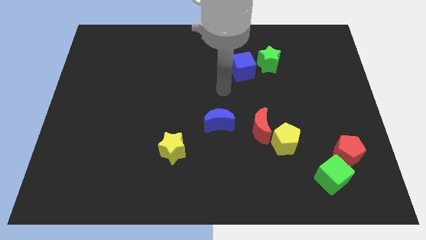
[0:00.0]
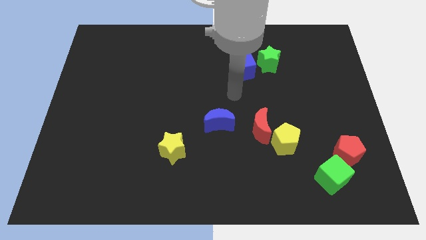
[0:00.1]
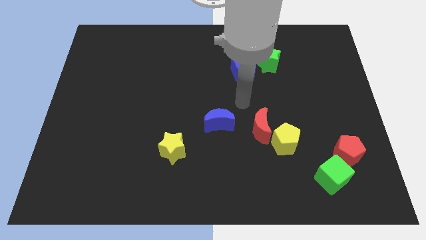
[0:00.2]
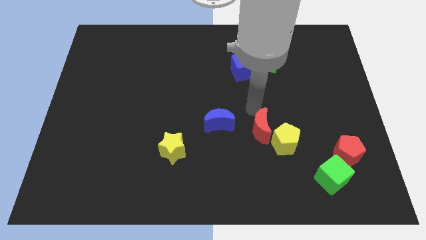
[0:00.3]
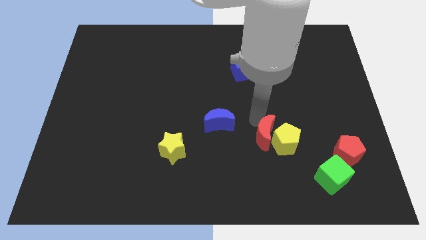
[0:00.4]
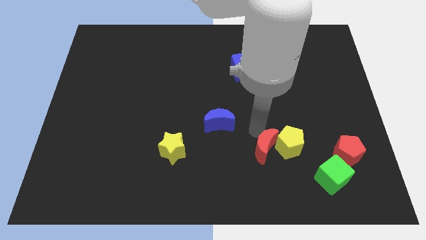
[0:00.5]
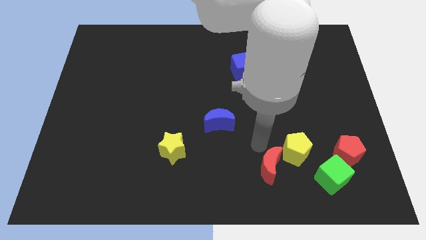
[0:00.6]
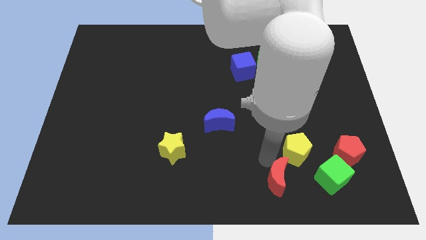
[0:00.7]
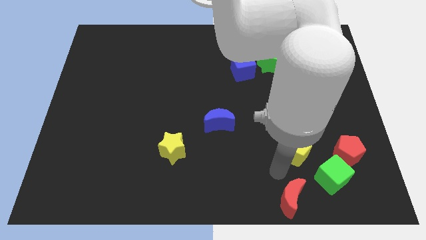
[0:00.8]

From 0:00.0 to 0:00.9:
move the yellow pentagon away from the red moon

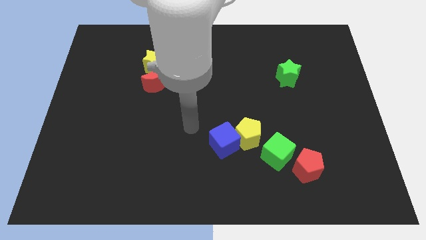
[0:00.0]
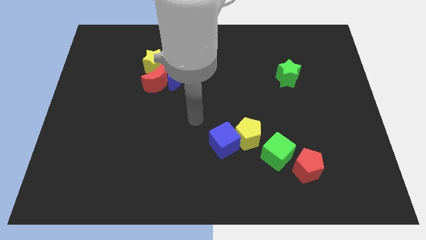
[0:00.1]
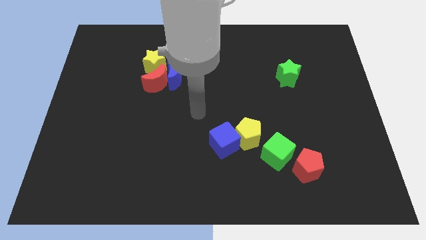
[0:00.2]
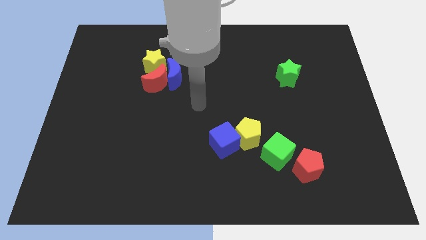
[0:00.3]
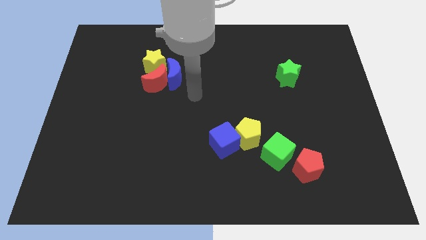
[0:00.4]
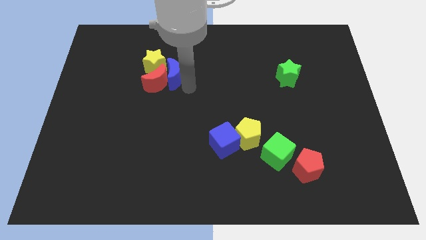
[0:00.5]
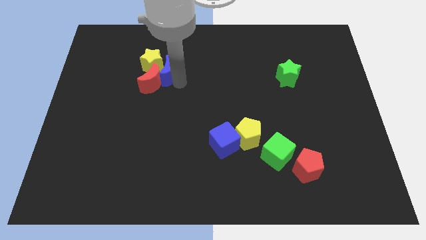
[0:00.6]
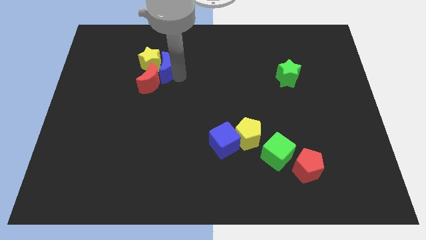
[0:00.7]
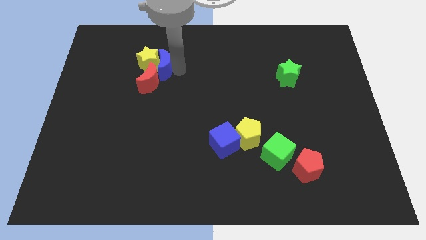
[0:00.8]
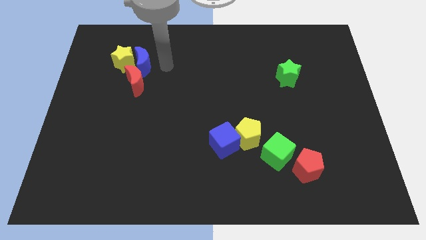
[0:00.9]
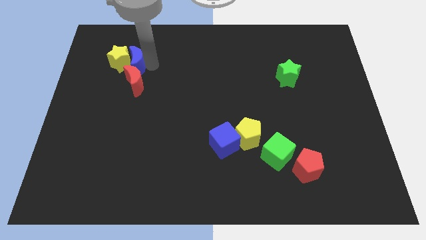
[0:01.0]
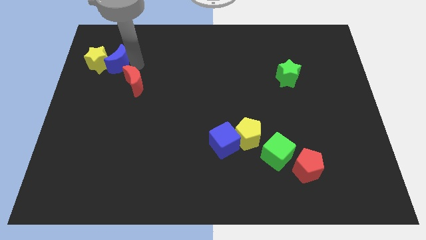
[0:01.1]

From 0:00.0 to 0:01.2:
move the red moon away from the blue moon and yellow star

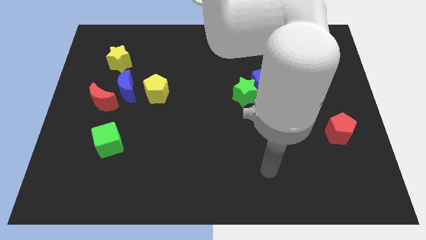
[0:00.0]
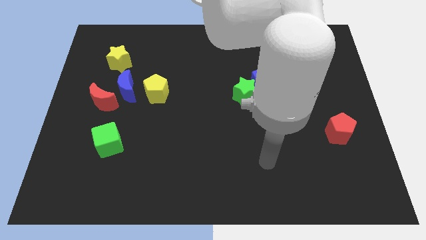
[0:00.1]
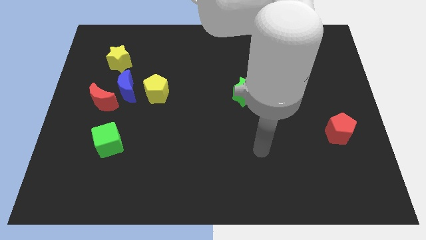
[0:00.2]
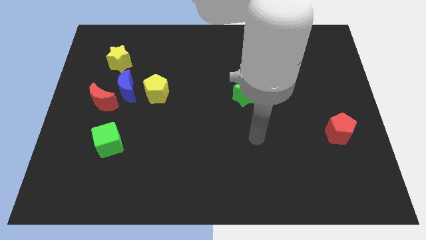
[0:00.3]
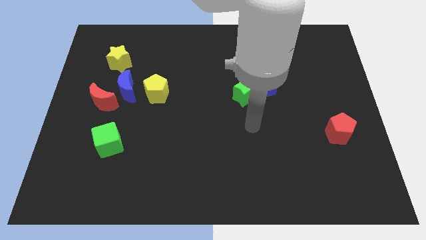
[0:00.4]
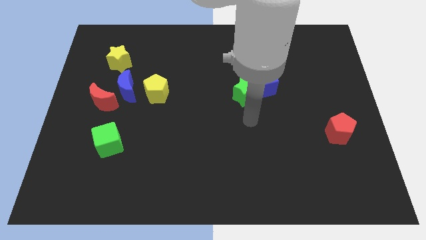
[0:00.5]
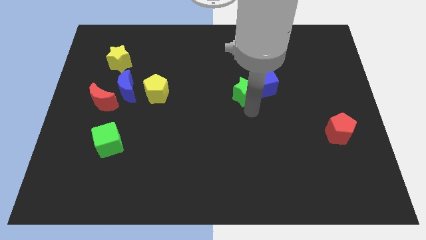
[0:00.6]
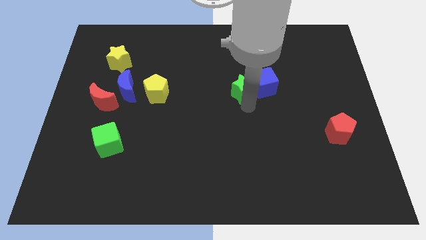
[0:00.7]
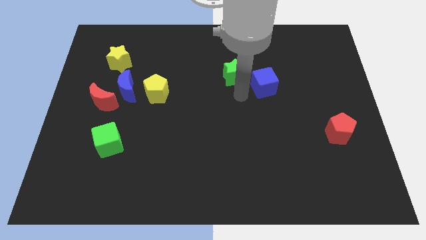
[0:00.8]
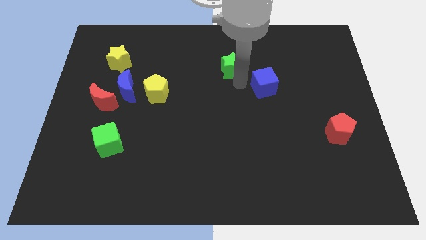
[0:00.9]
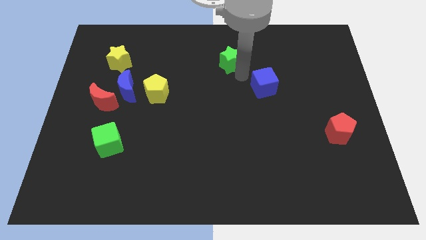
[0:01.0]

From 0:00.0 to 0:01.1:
pull the blue cube apart from the green star

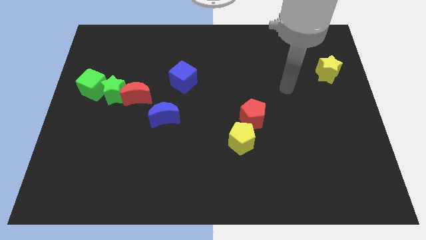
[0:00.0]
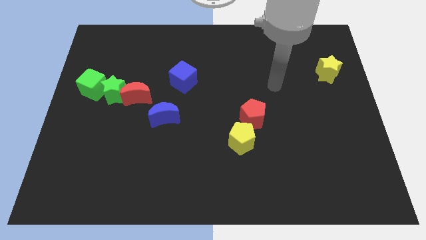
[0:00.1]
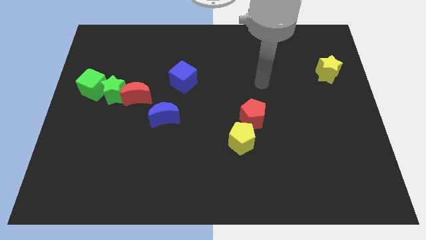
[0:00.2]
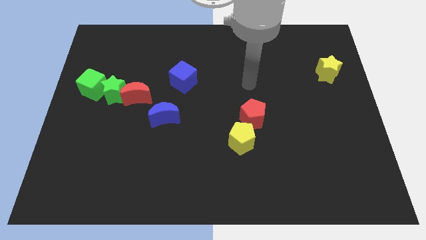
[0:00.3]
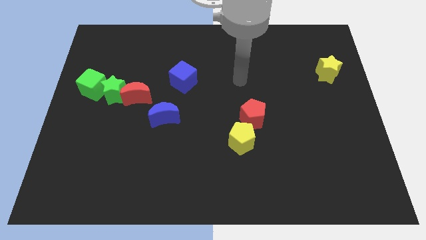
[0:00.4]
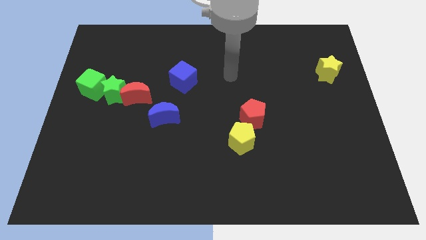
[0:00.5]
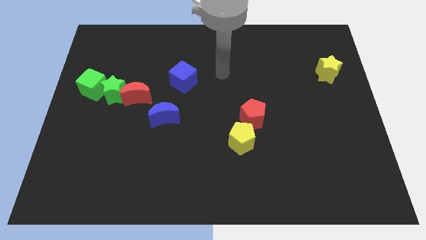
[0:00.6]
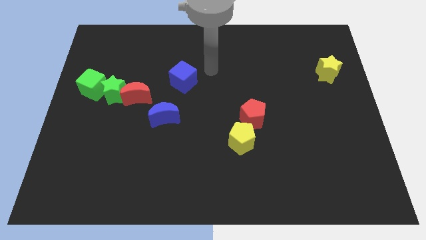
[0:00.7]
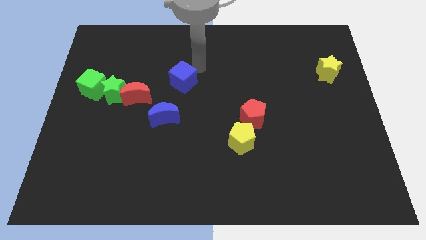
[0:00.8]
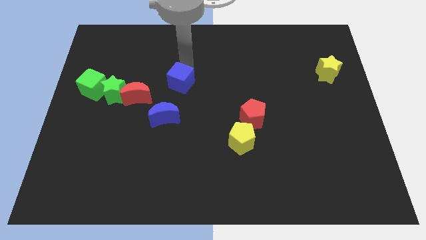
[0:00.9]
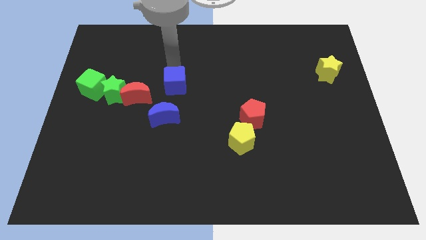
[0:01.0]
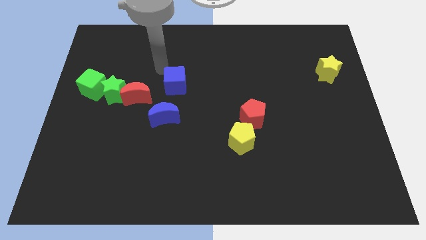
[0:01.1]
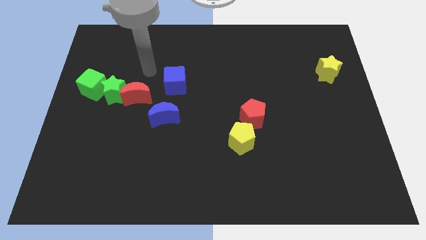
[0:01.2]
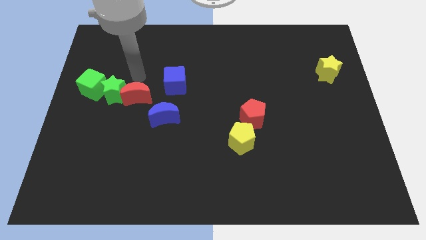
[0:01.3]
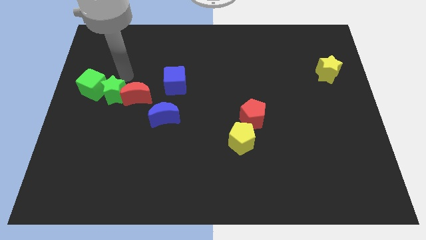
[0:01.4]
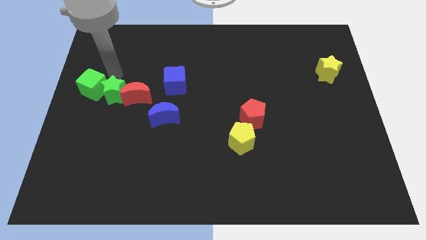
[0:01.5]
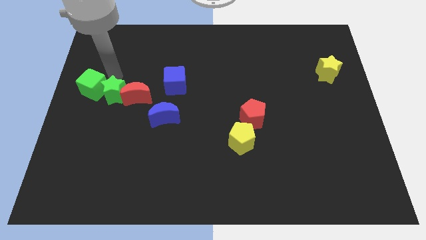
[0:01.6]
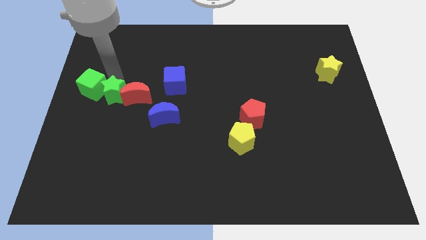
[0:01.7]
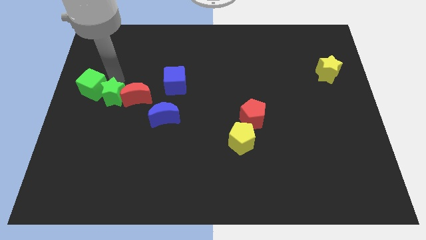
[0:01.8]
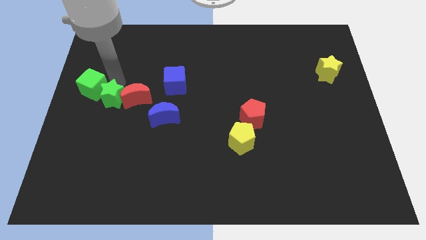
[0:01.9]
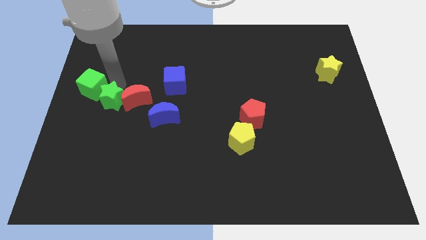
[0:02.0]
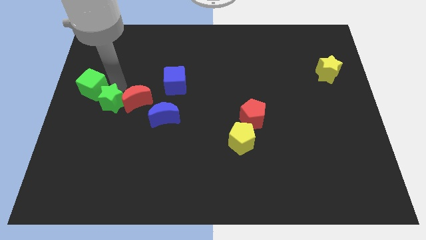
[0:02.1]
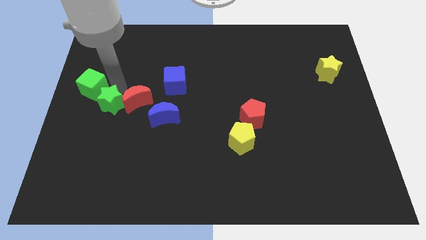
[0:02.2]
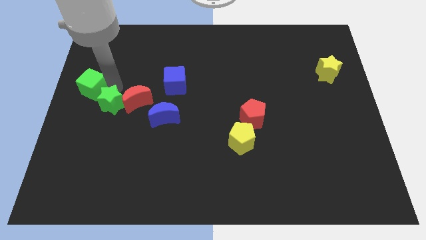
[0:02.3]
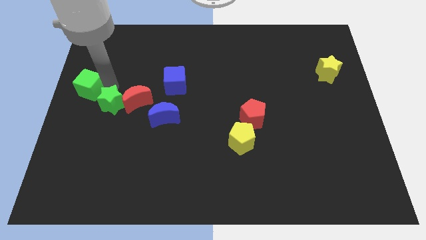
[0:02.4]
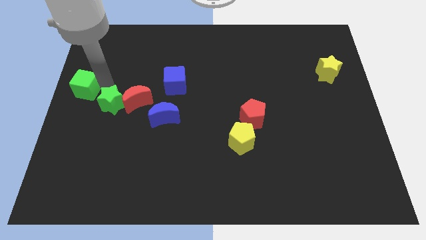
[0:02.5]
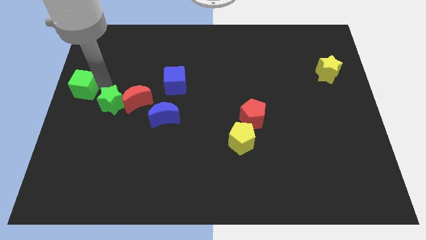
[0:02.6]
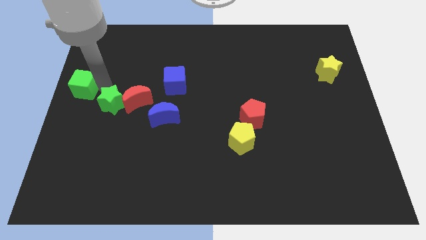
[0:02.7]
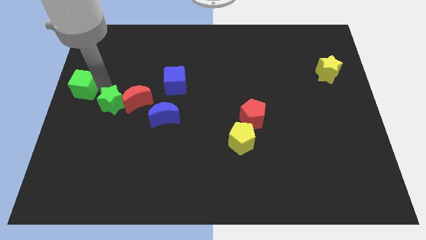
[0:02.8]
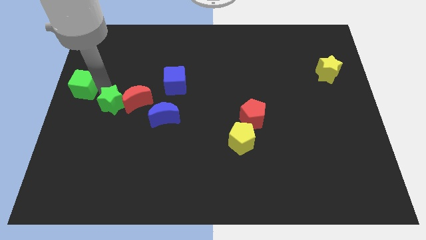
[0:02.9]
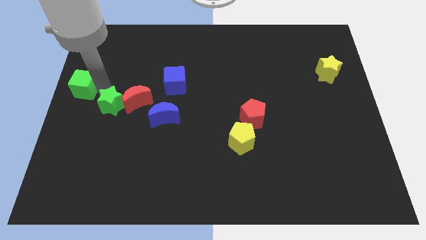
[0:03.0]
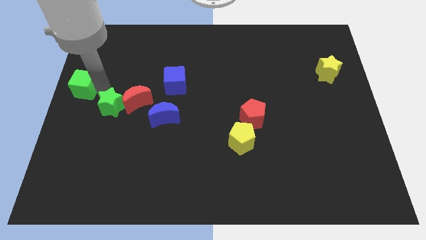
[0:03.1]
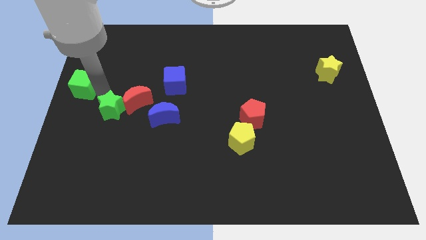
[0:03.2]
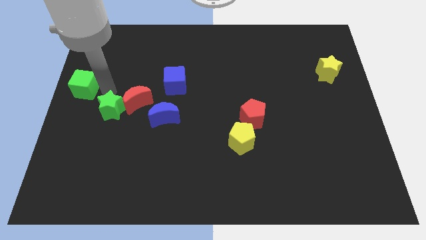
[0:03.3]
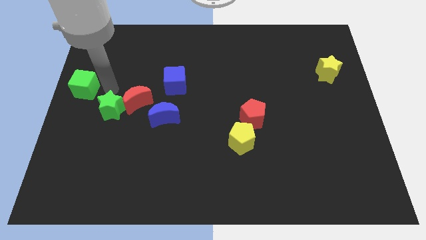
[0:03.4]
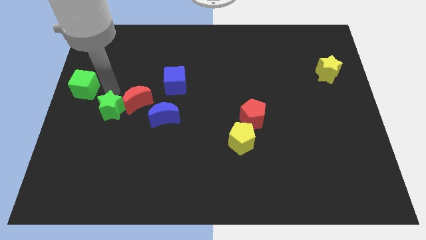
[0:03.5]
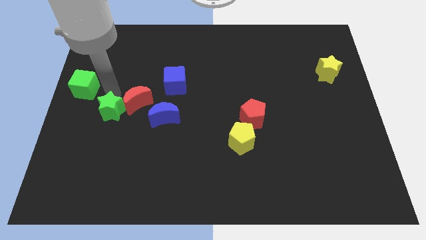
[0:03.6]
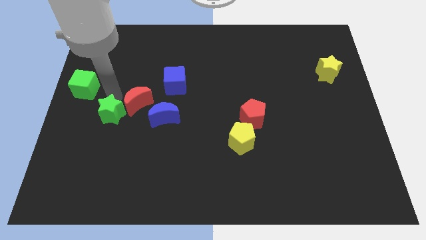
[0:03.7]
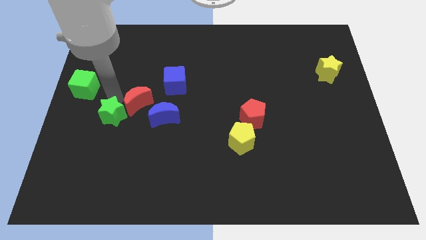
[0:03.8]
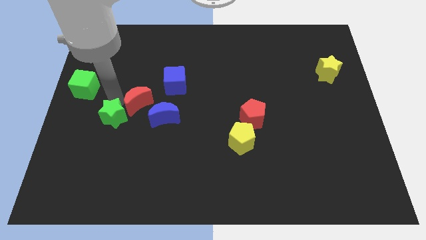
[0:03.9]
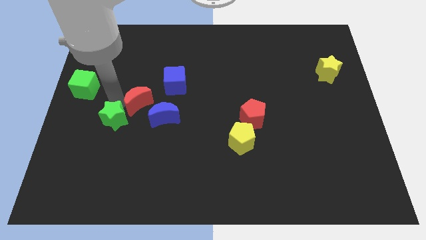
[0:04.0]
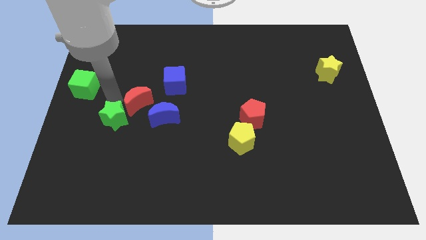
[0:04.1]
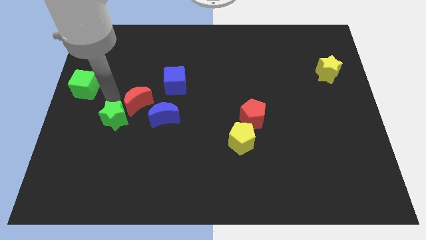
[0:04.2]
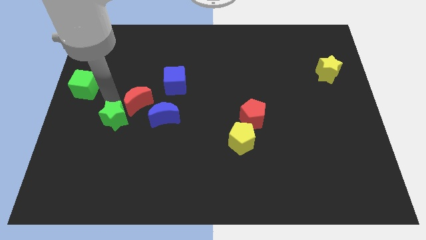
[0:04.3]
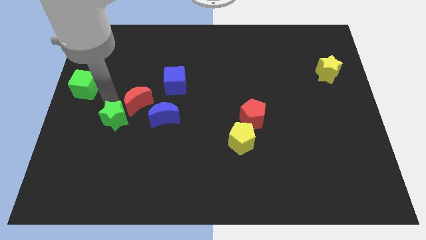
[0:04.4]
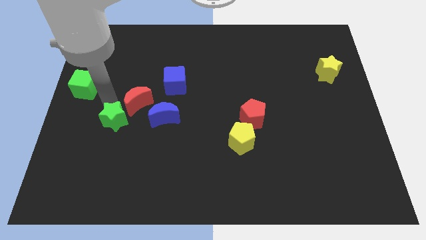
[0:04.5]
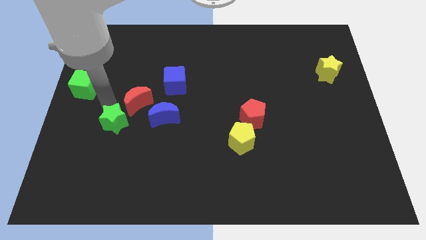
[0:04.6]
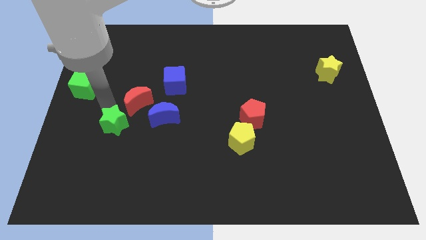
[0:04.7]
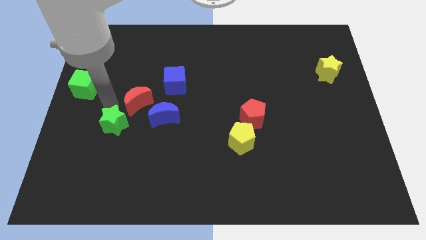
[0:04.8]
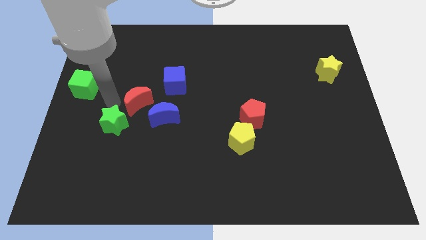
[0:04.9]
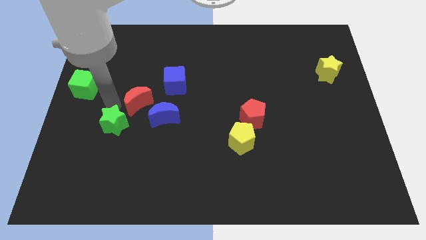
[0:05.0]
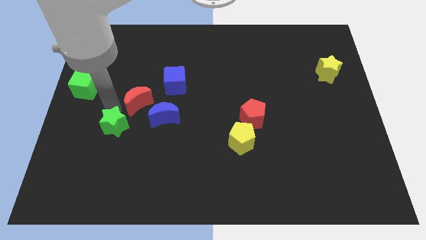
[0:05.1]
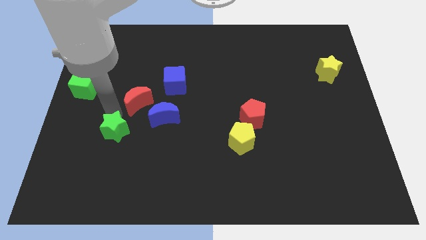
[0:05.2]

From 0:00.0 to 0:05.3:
pull the green star apart from the red moon and green cube

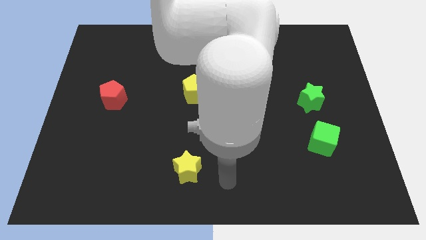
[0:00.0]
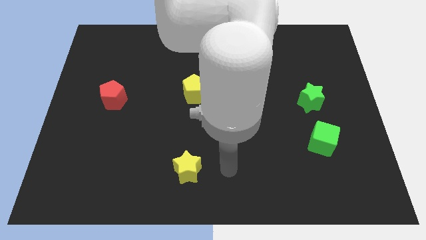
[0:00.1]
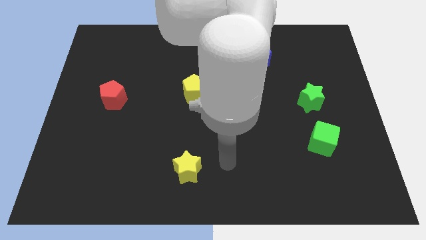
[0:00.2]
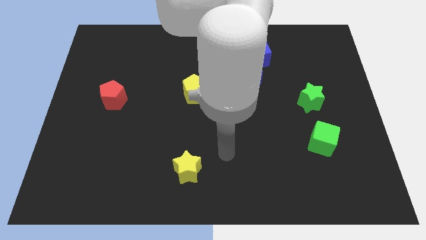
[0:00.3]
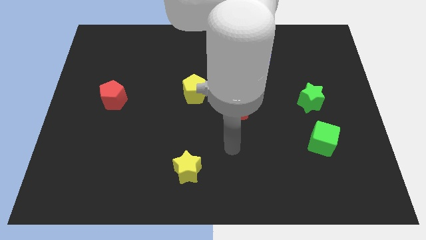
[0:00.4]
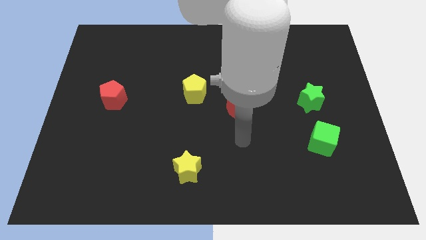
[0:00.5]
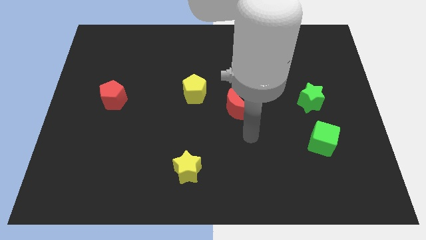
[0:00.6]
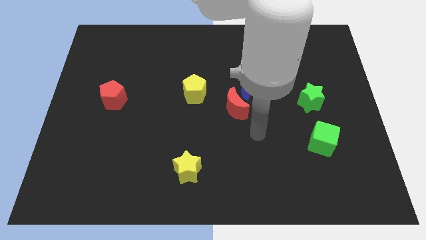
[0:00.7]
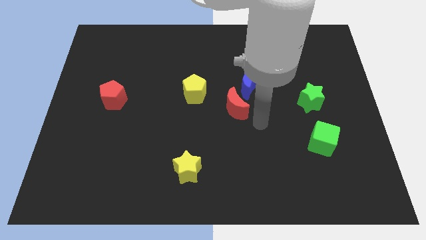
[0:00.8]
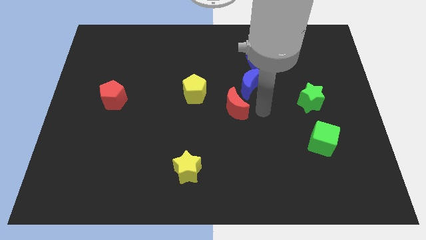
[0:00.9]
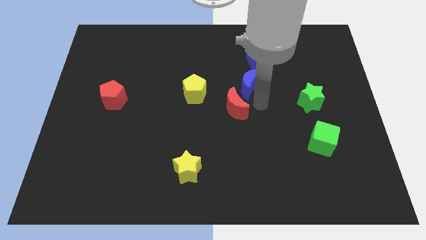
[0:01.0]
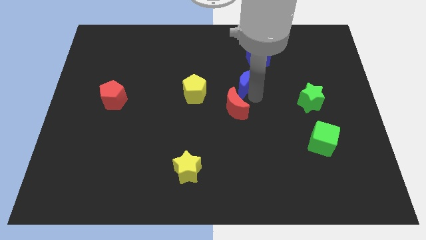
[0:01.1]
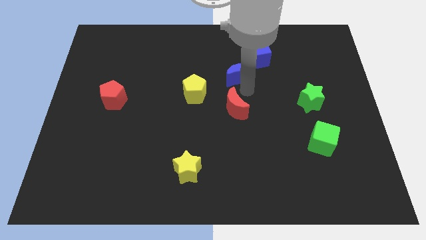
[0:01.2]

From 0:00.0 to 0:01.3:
separate the red moon from the blue moon
